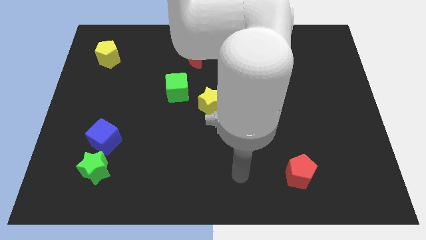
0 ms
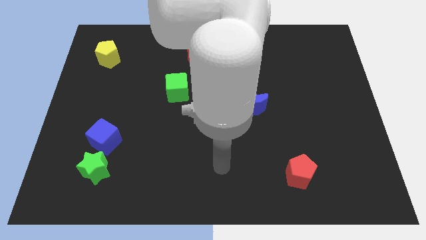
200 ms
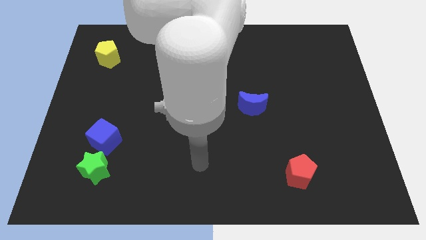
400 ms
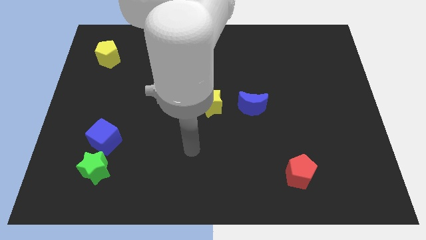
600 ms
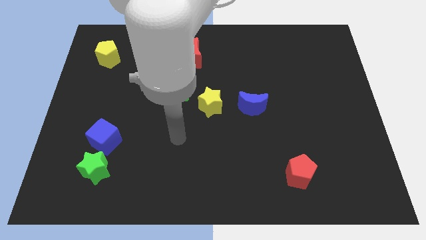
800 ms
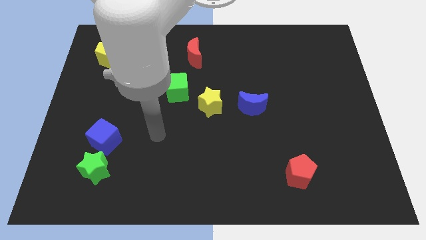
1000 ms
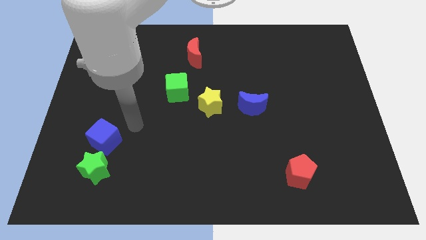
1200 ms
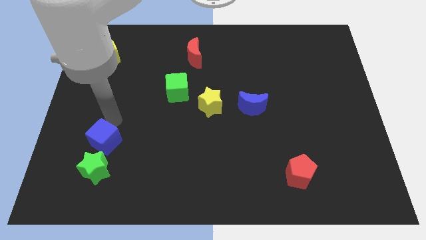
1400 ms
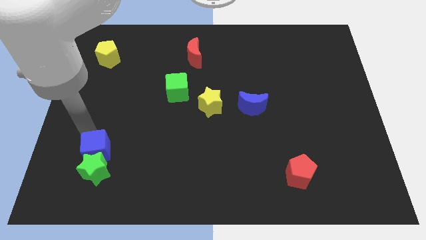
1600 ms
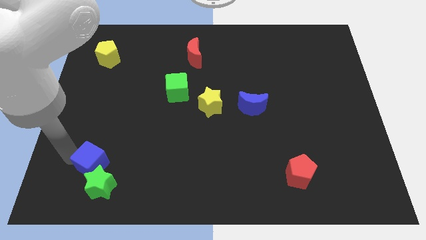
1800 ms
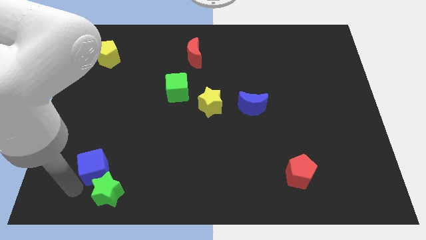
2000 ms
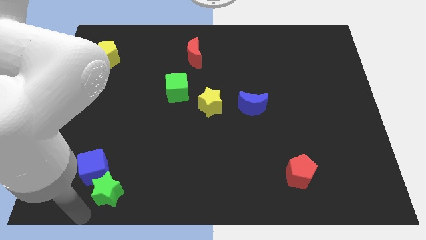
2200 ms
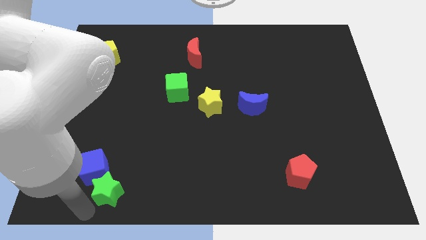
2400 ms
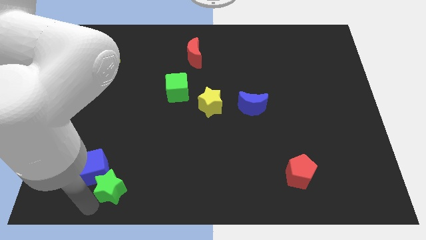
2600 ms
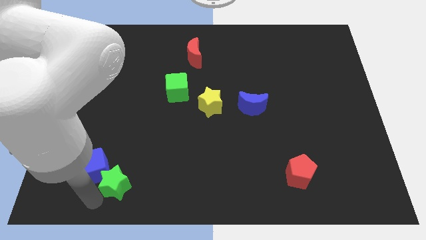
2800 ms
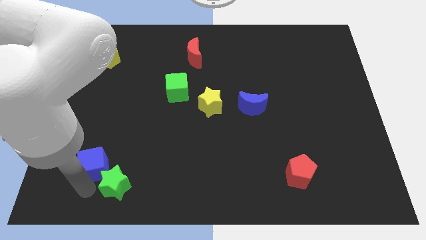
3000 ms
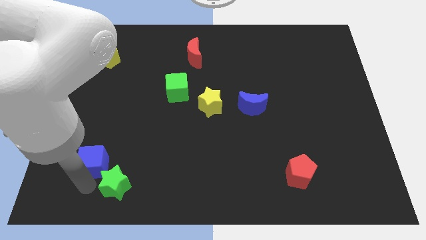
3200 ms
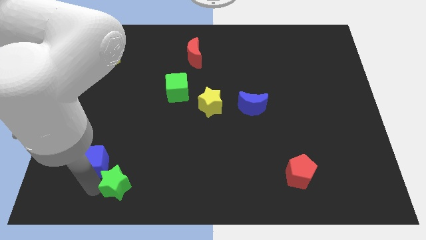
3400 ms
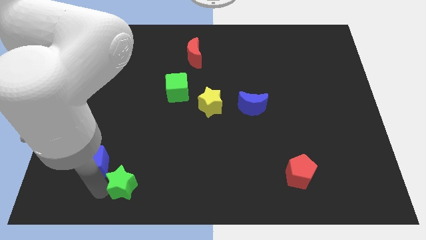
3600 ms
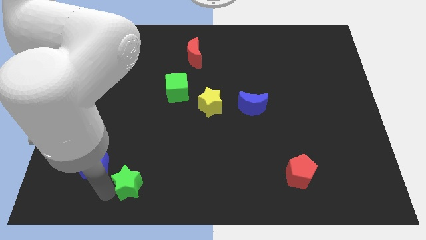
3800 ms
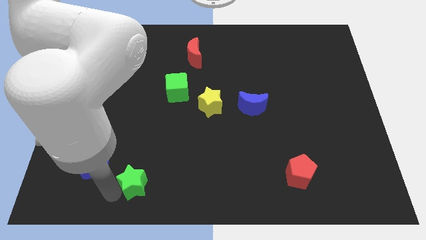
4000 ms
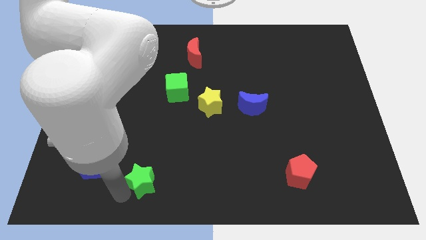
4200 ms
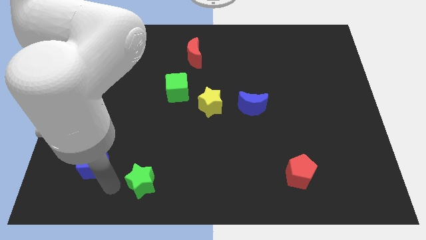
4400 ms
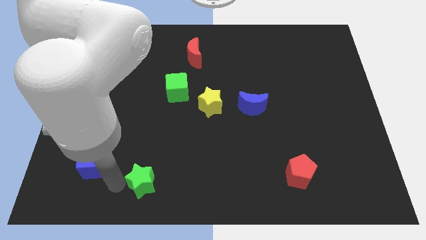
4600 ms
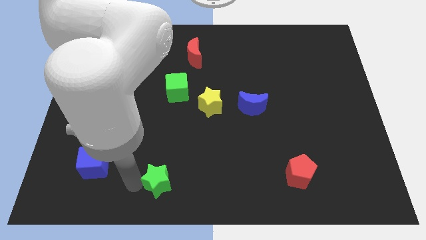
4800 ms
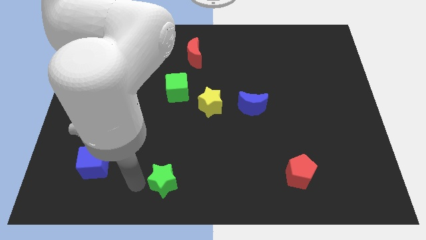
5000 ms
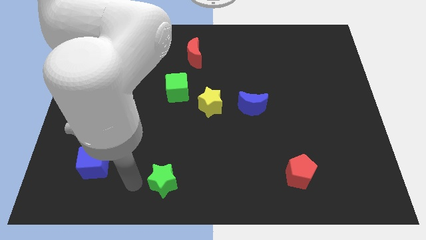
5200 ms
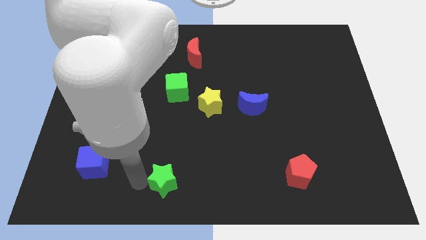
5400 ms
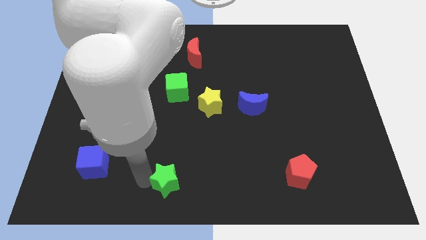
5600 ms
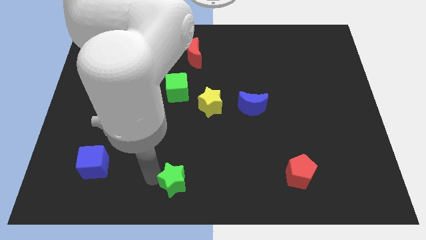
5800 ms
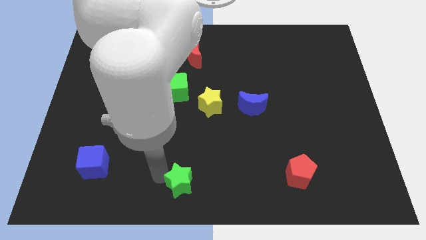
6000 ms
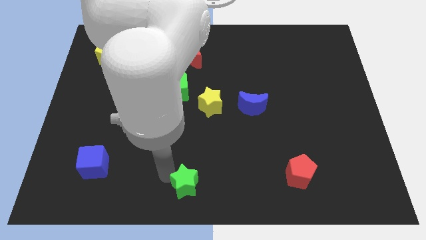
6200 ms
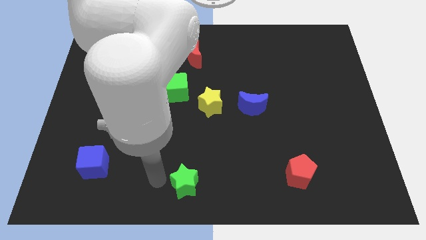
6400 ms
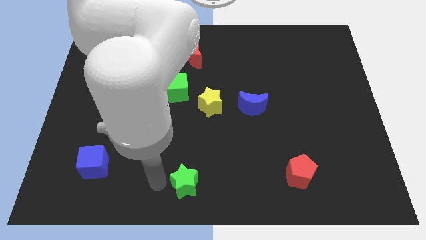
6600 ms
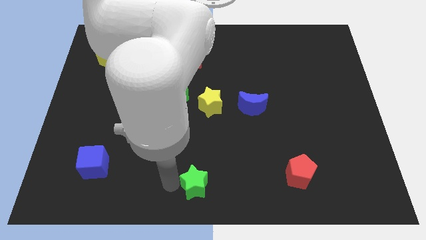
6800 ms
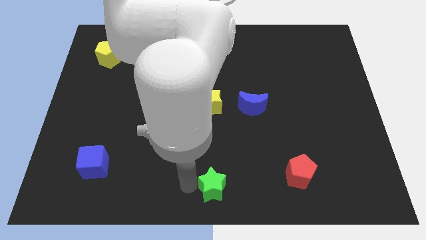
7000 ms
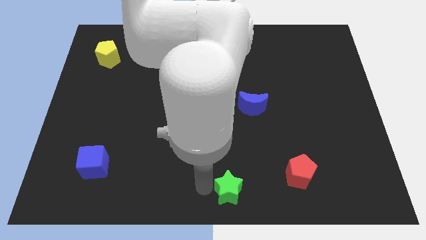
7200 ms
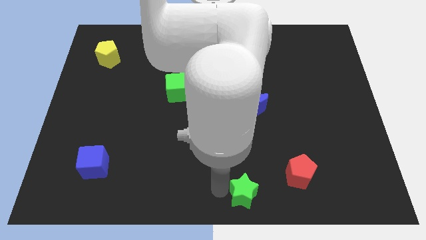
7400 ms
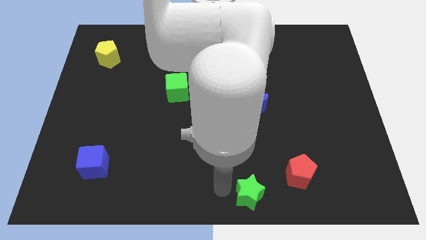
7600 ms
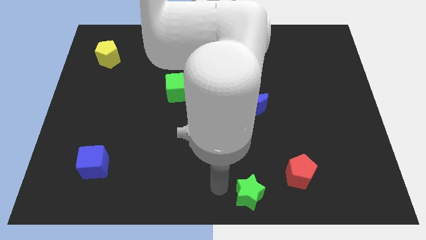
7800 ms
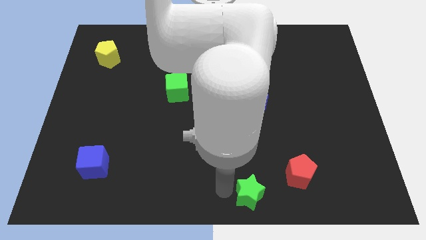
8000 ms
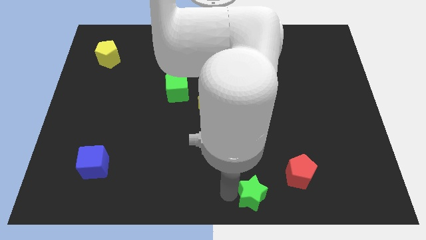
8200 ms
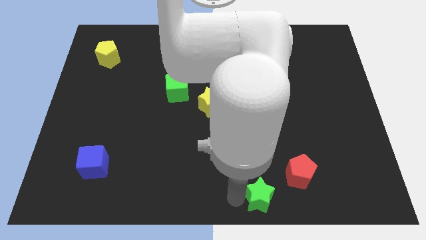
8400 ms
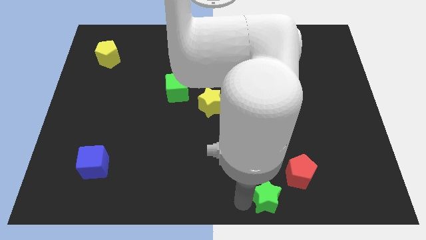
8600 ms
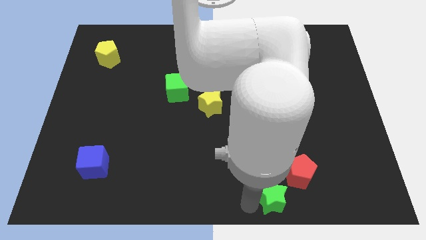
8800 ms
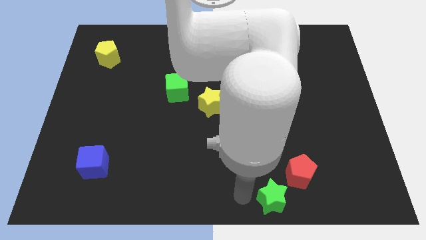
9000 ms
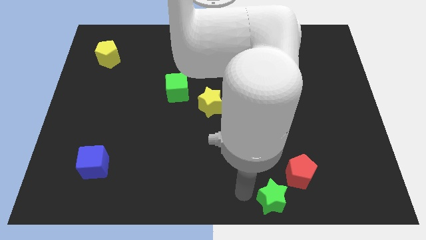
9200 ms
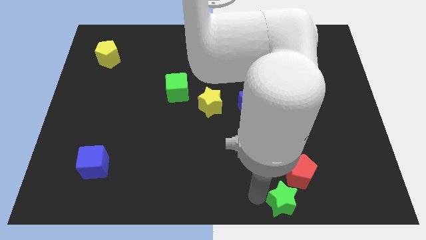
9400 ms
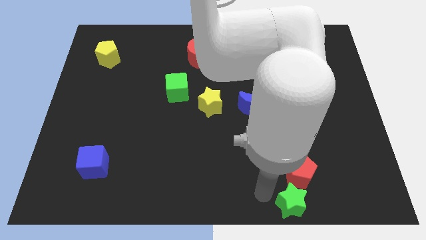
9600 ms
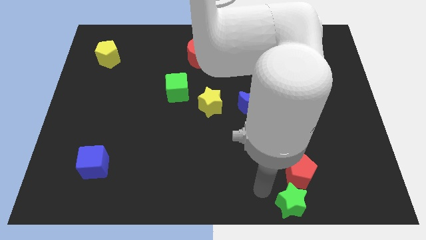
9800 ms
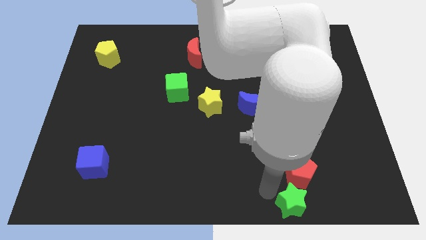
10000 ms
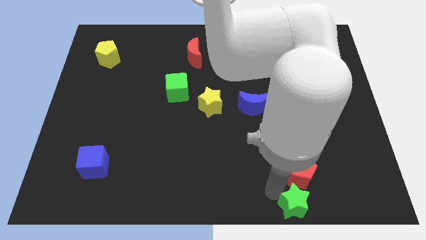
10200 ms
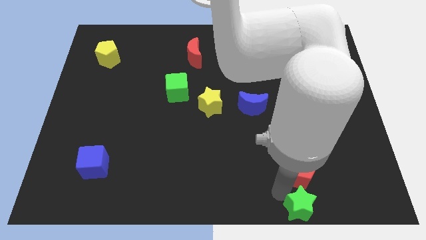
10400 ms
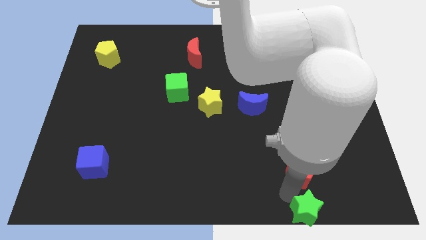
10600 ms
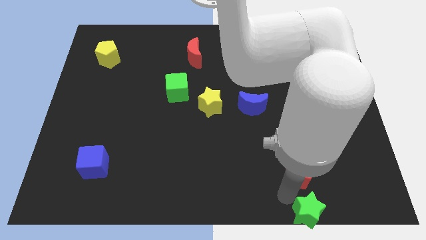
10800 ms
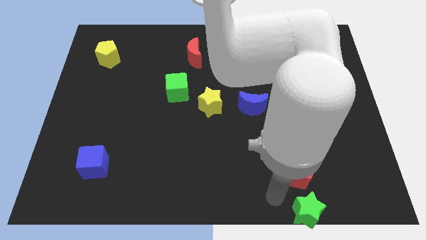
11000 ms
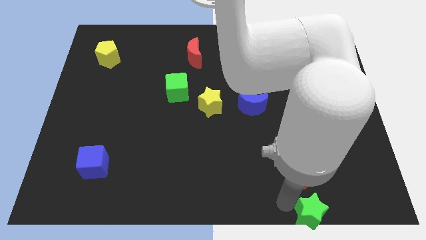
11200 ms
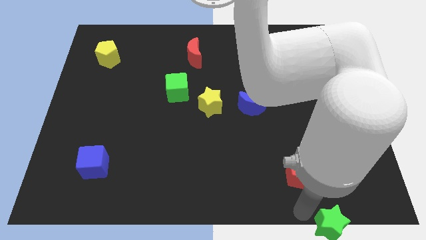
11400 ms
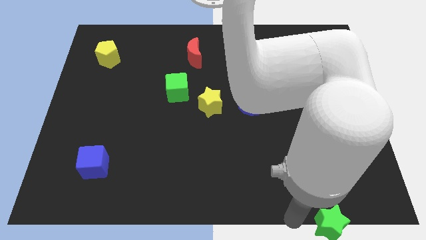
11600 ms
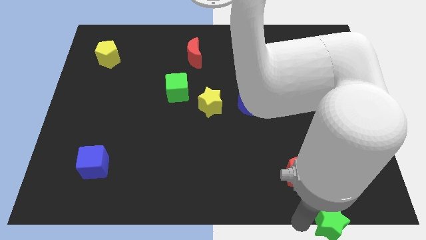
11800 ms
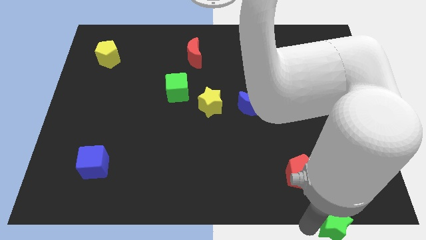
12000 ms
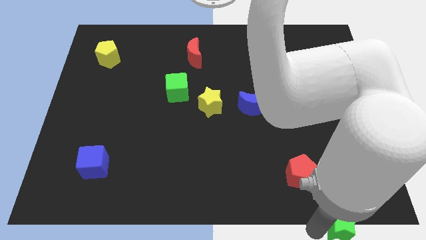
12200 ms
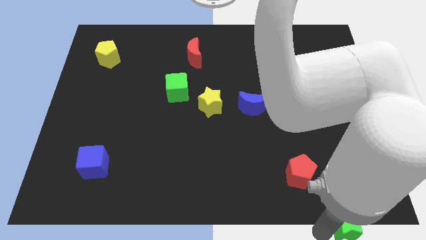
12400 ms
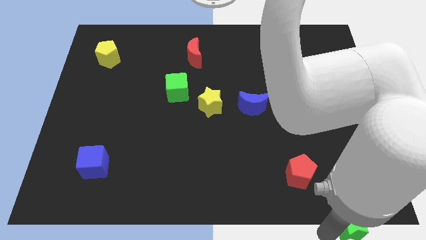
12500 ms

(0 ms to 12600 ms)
slide the green star to the lower right corner

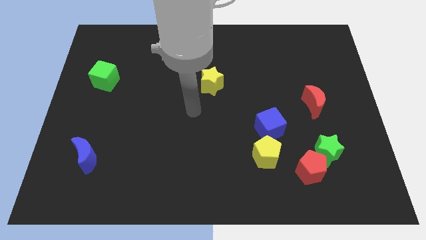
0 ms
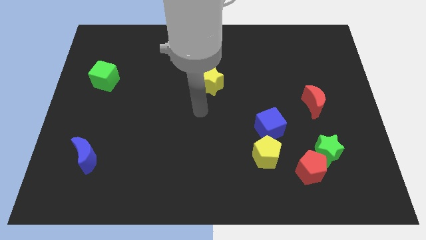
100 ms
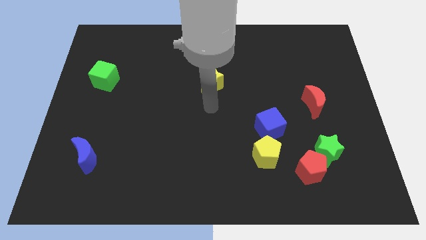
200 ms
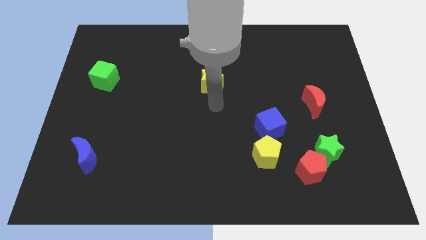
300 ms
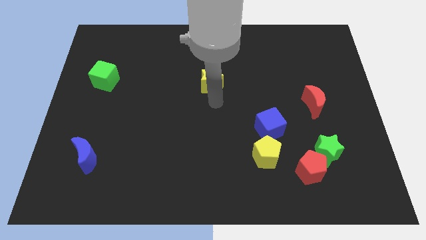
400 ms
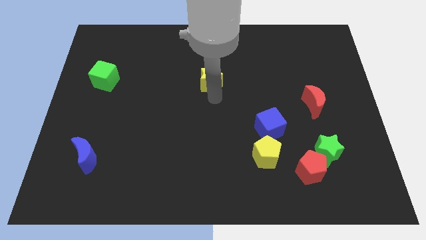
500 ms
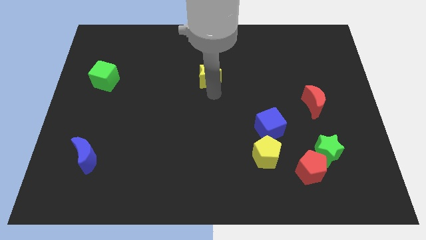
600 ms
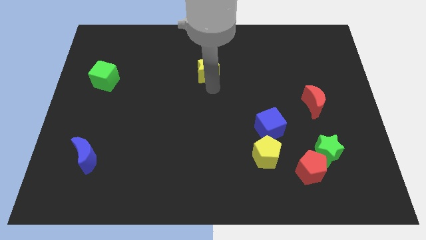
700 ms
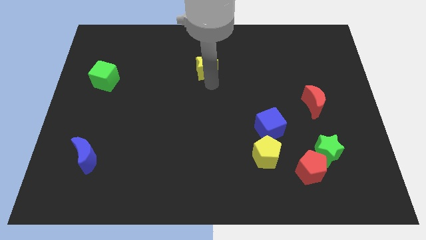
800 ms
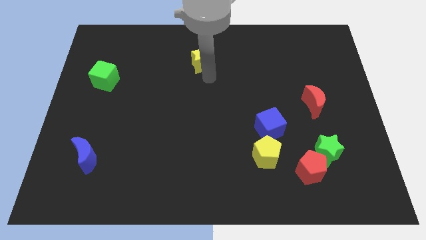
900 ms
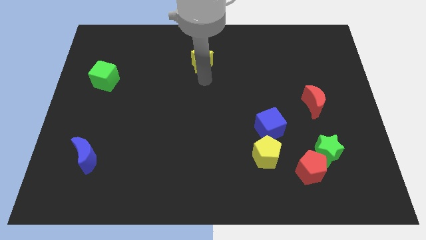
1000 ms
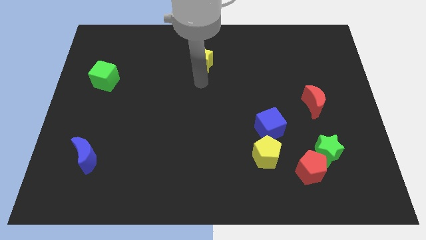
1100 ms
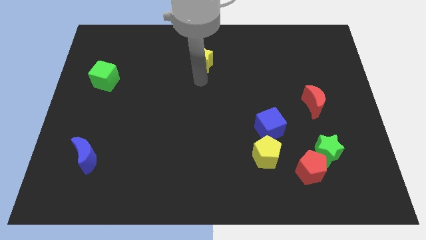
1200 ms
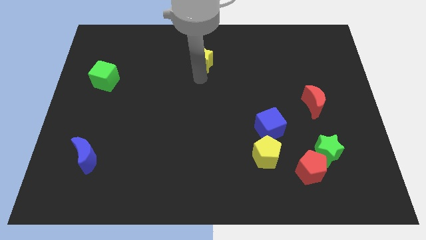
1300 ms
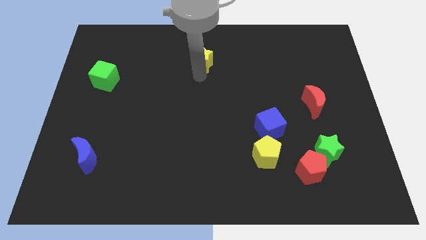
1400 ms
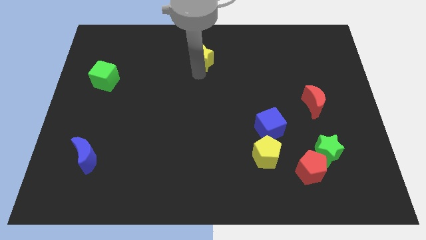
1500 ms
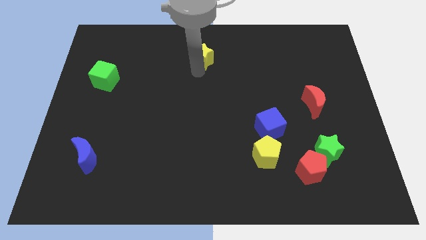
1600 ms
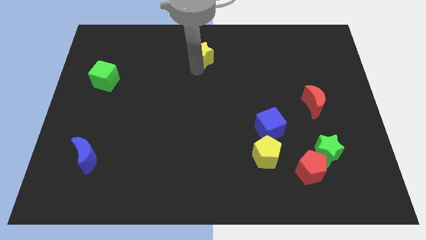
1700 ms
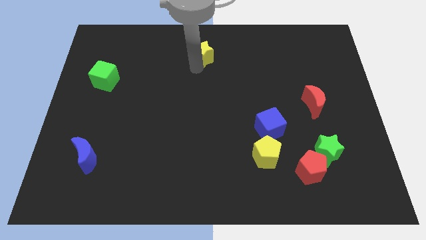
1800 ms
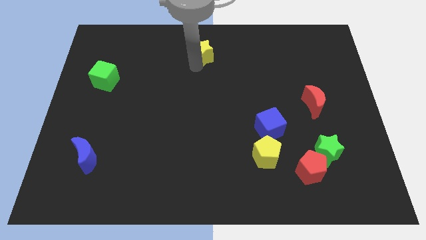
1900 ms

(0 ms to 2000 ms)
move the yellow star to the top side
